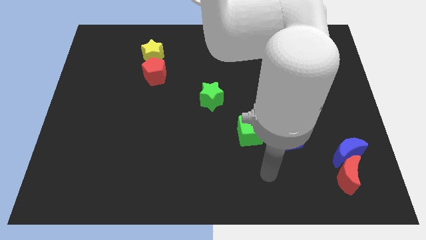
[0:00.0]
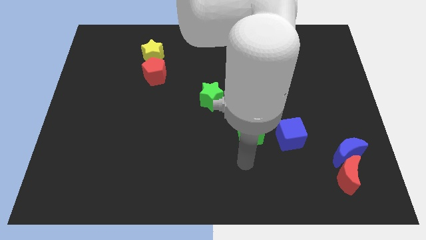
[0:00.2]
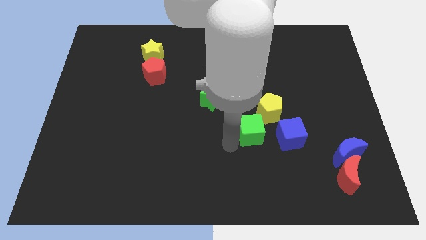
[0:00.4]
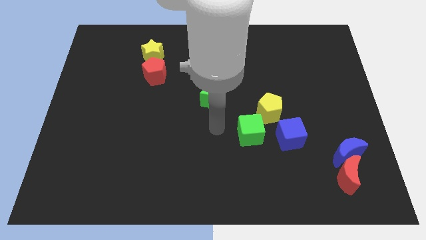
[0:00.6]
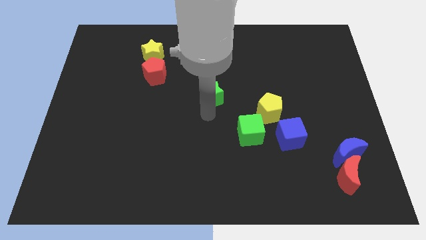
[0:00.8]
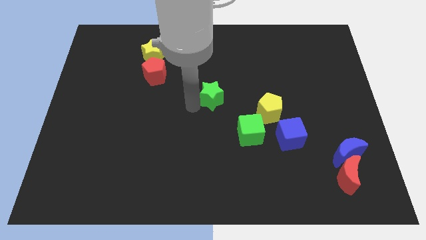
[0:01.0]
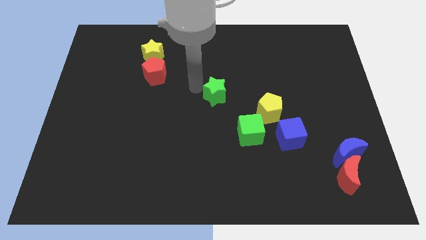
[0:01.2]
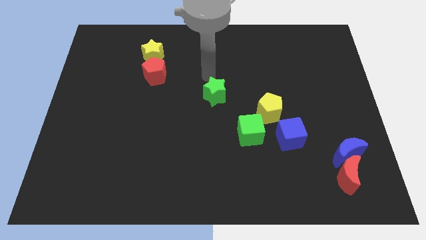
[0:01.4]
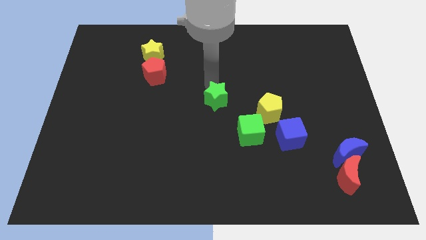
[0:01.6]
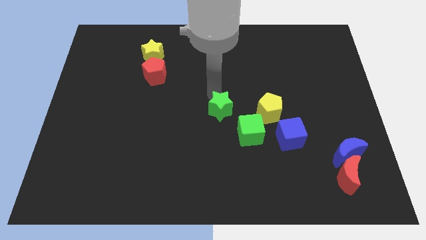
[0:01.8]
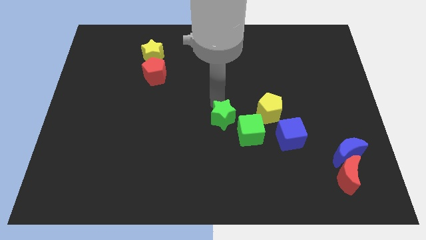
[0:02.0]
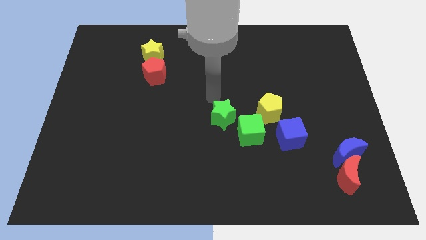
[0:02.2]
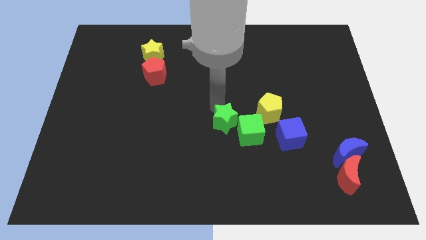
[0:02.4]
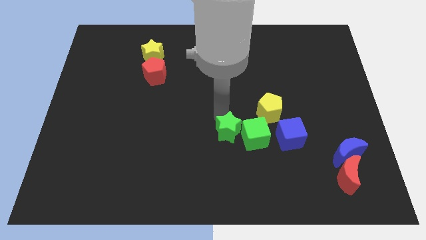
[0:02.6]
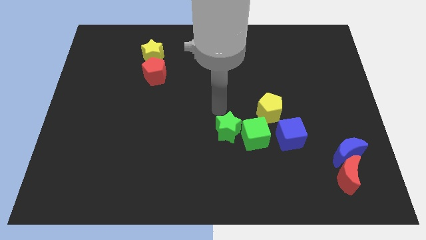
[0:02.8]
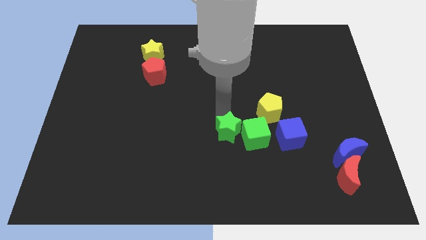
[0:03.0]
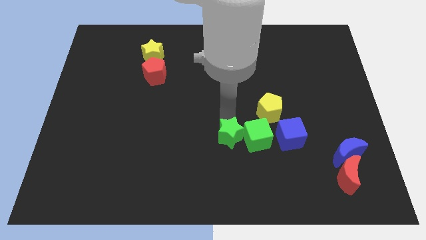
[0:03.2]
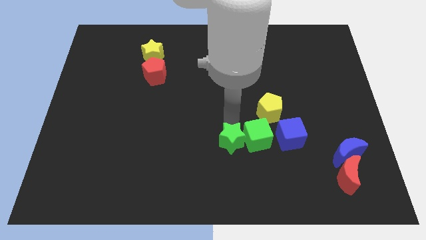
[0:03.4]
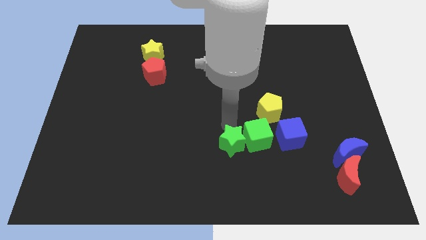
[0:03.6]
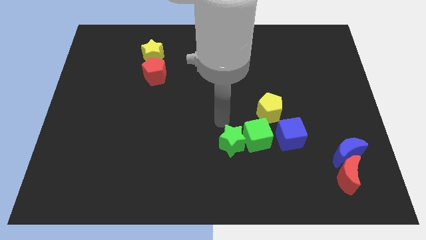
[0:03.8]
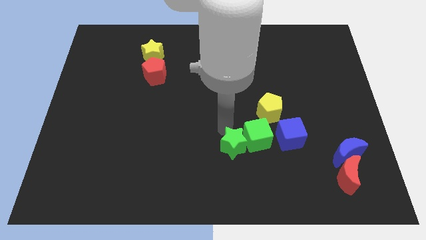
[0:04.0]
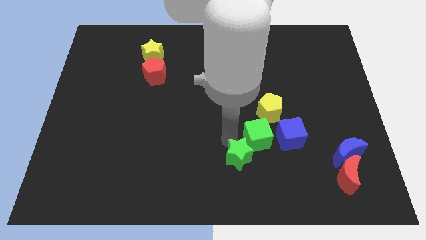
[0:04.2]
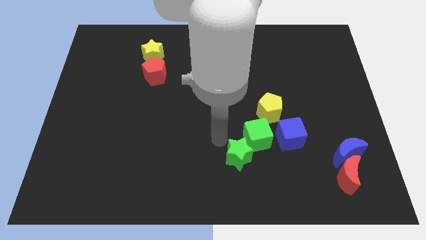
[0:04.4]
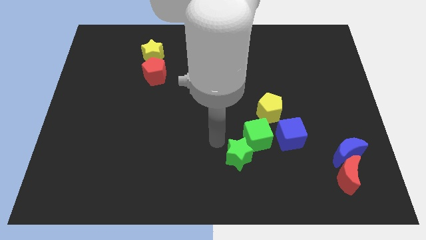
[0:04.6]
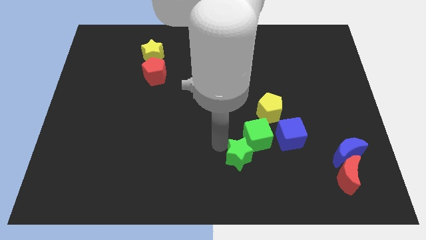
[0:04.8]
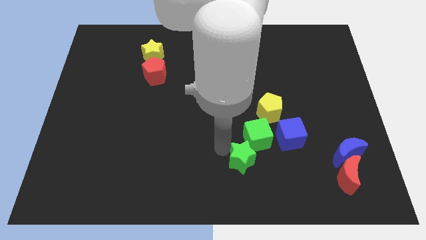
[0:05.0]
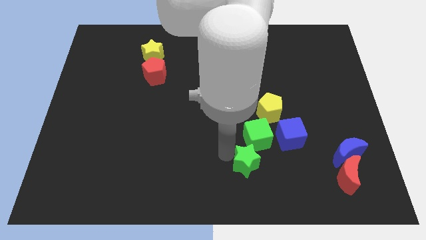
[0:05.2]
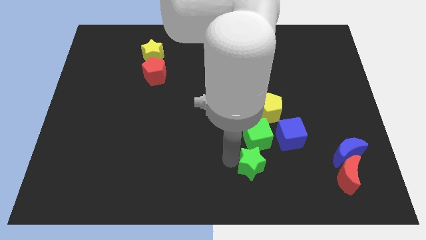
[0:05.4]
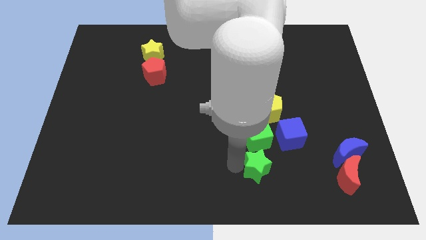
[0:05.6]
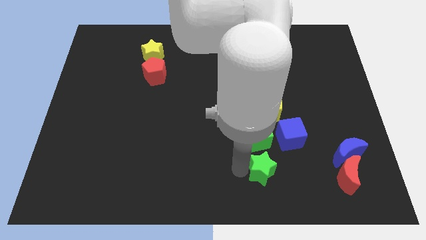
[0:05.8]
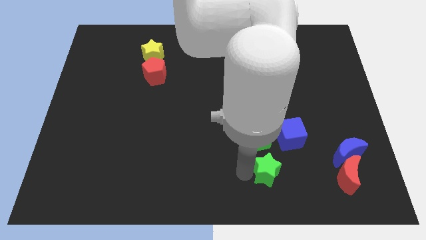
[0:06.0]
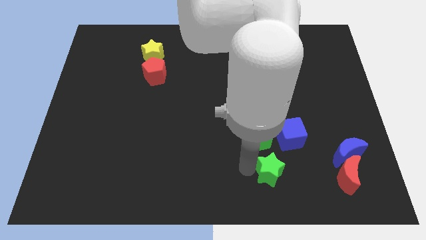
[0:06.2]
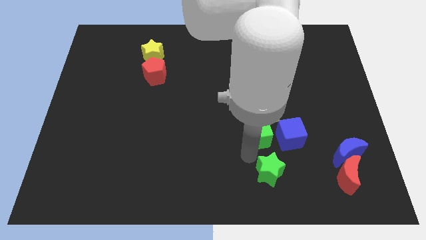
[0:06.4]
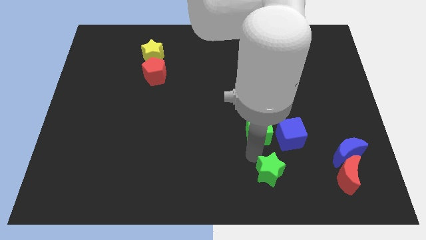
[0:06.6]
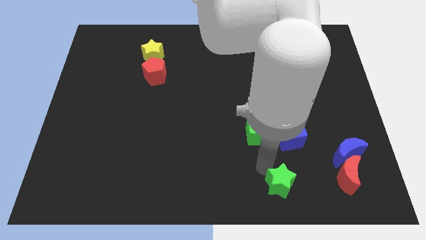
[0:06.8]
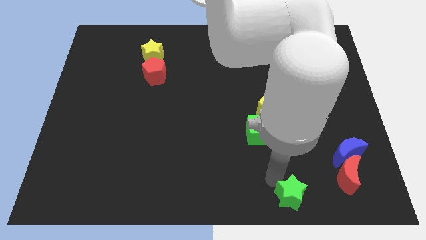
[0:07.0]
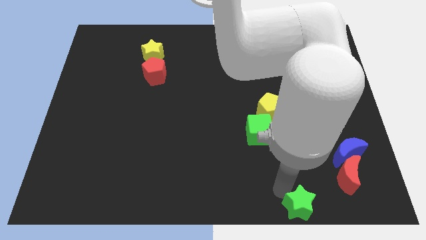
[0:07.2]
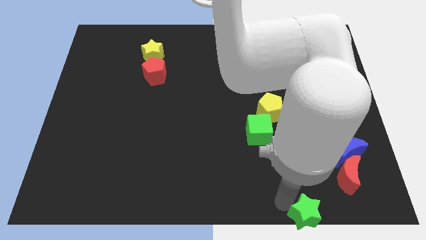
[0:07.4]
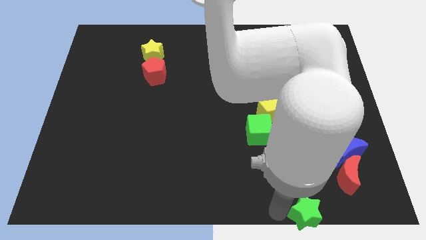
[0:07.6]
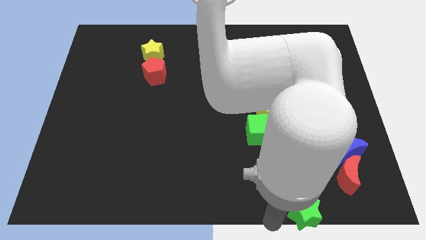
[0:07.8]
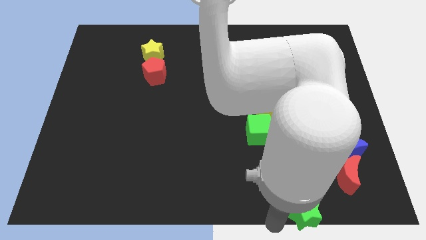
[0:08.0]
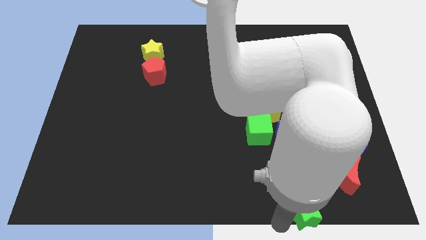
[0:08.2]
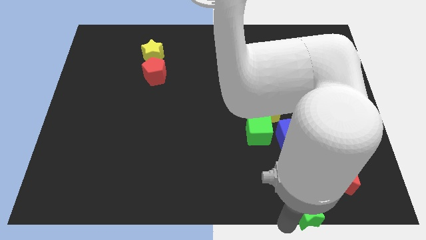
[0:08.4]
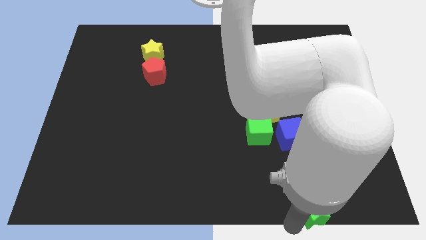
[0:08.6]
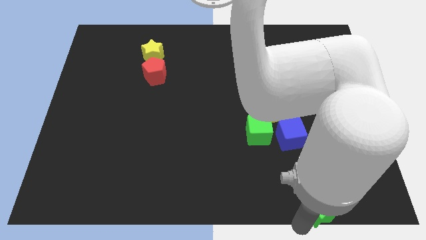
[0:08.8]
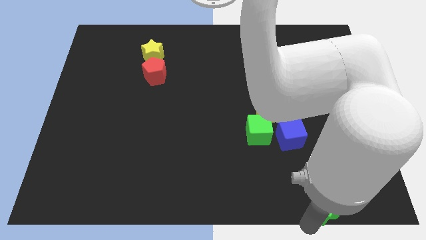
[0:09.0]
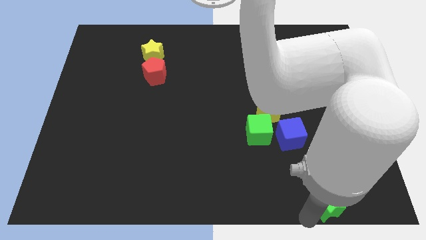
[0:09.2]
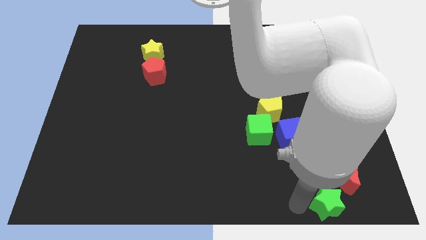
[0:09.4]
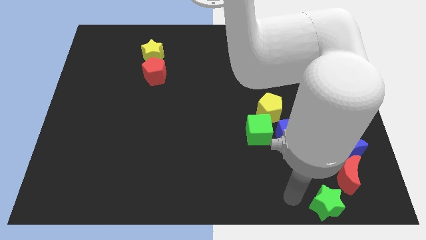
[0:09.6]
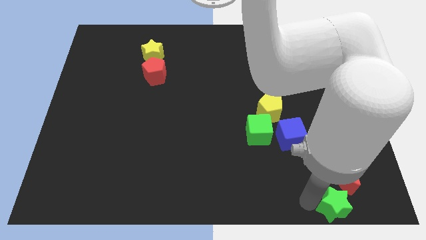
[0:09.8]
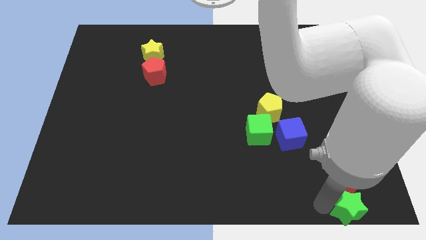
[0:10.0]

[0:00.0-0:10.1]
slide the green star to the bottom right
